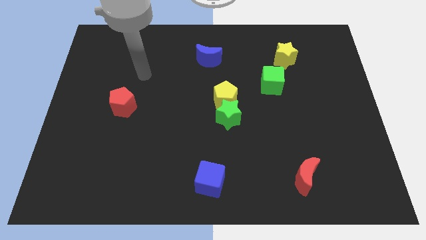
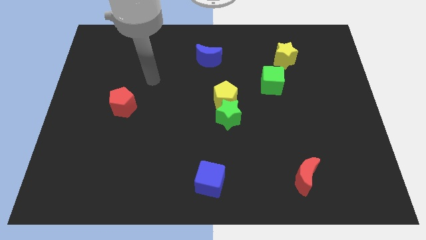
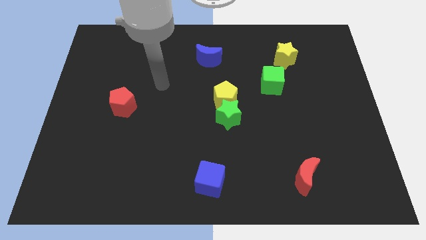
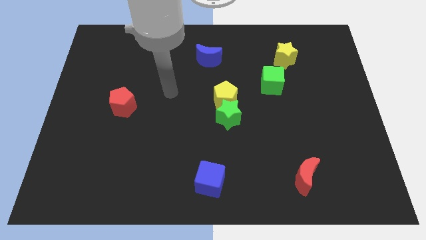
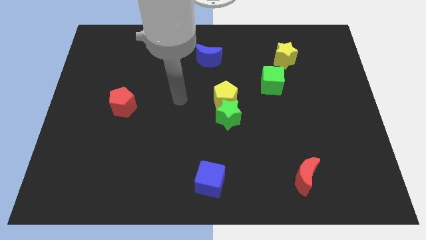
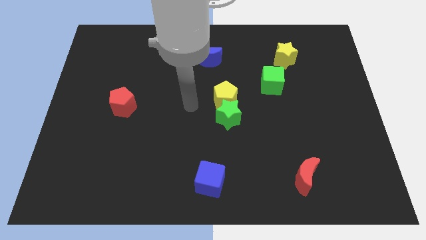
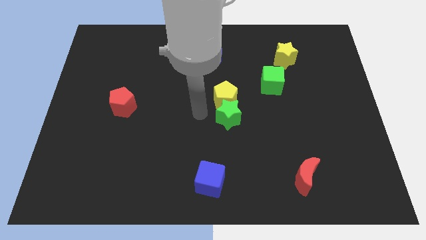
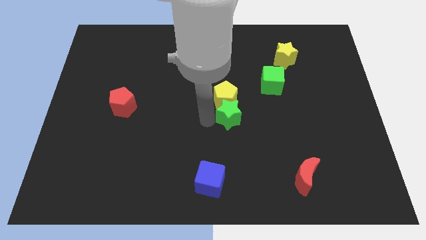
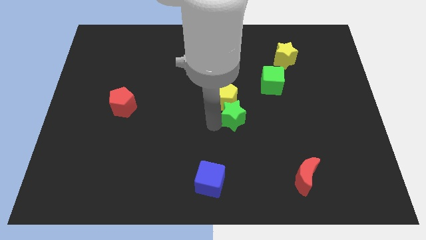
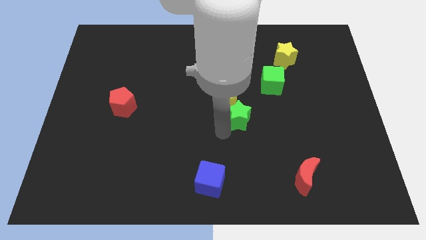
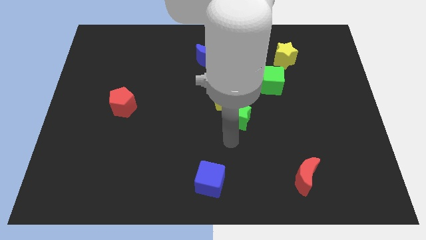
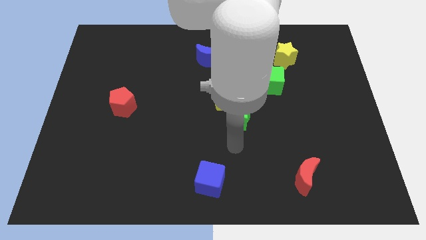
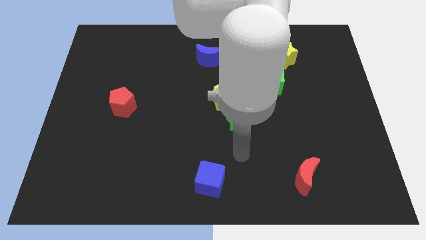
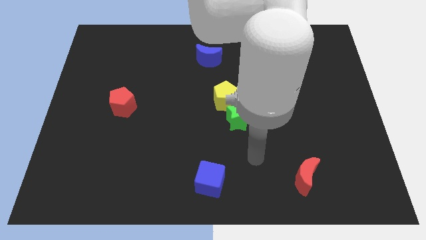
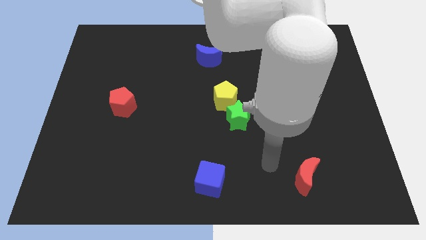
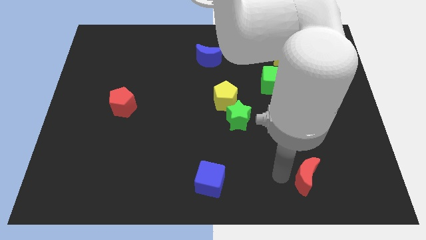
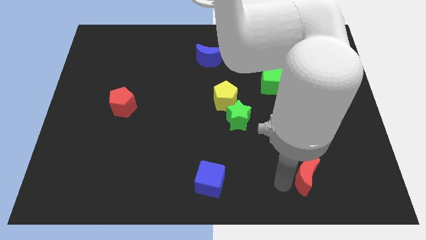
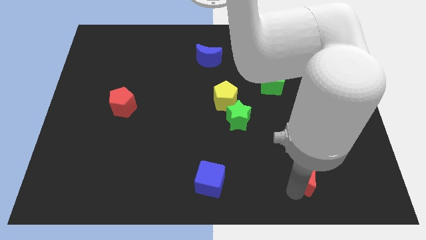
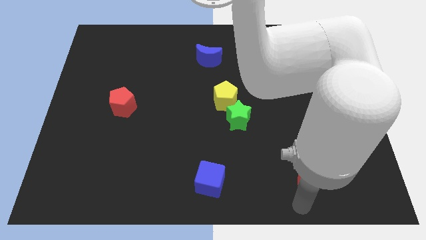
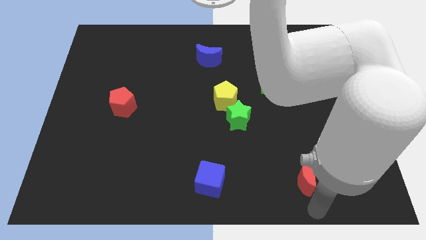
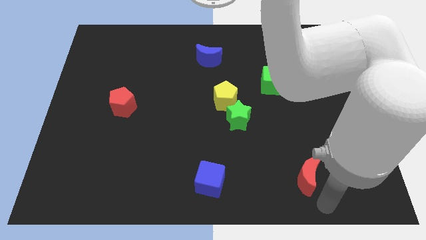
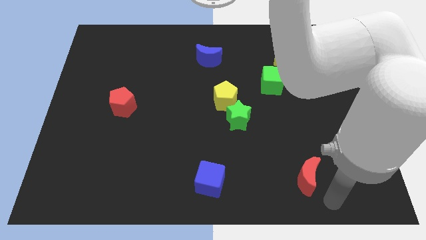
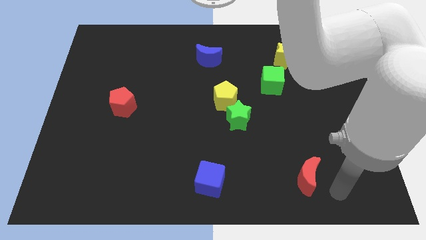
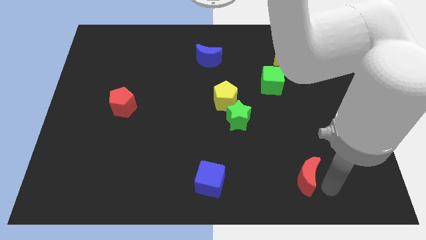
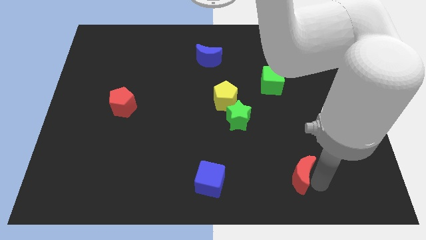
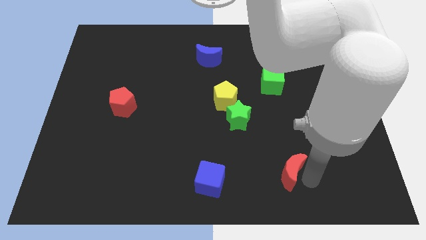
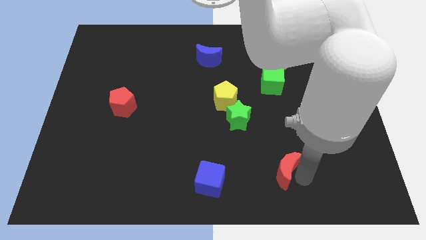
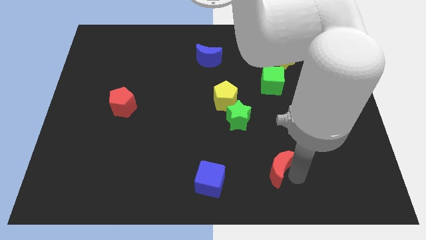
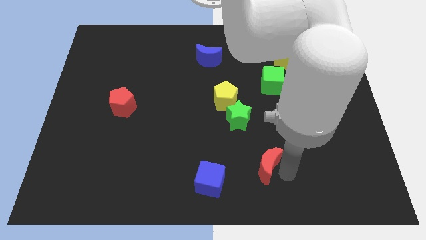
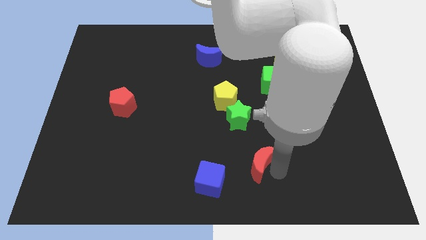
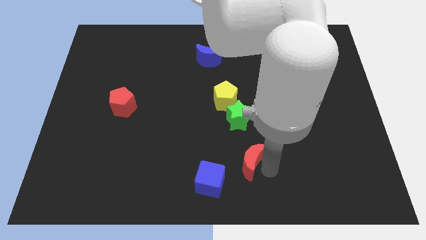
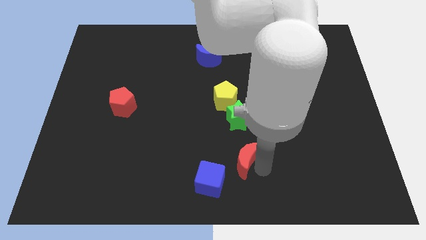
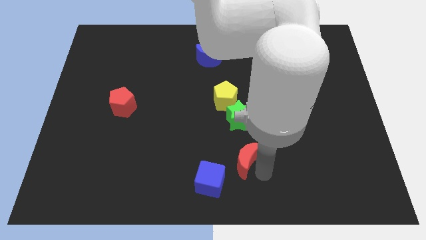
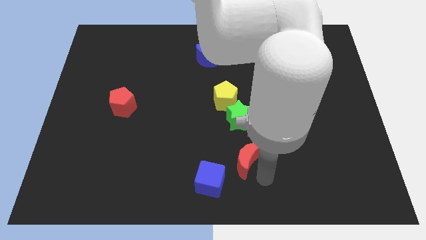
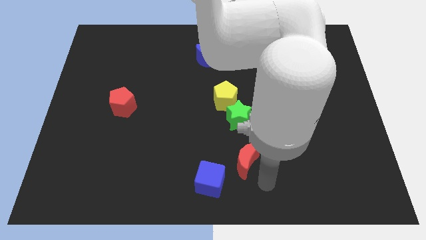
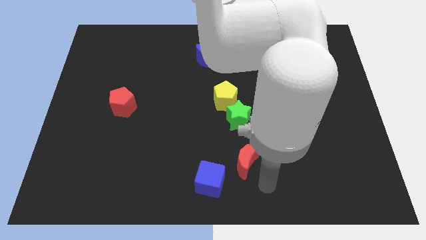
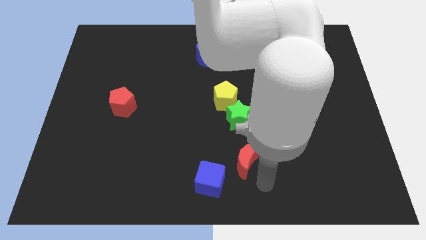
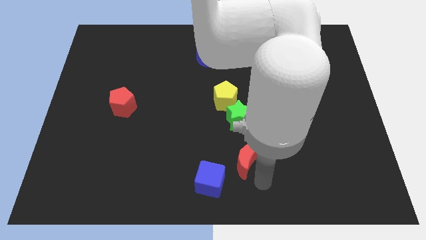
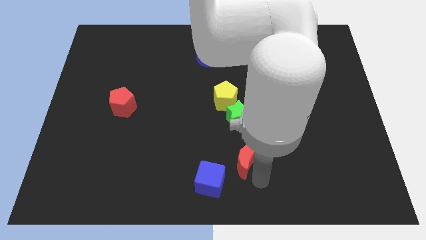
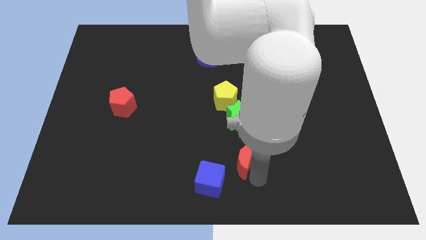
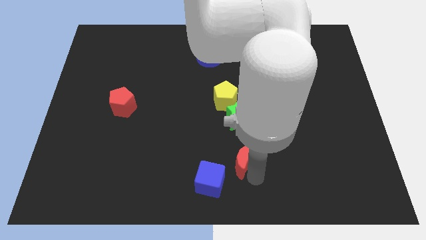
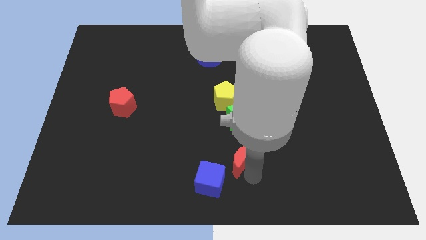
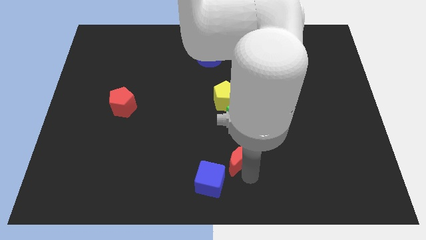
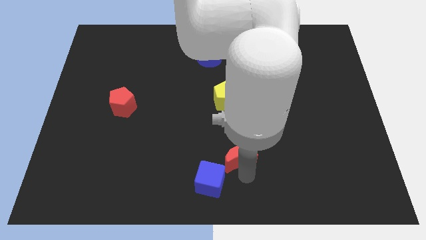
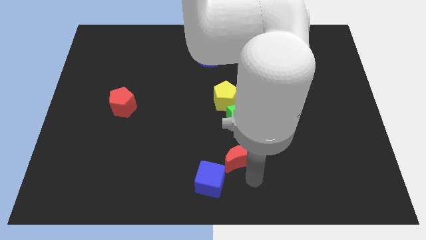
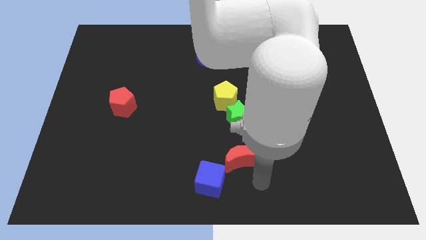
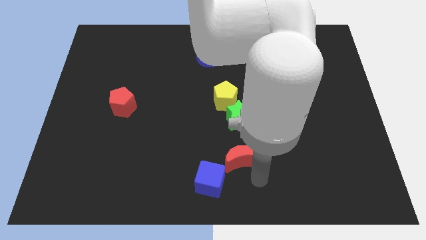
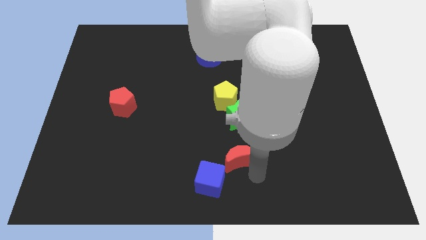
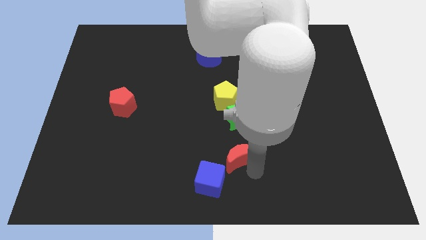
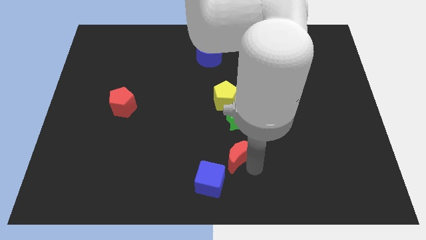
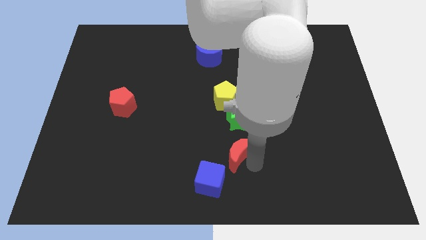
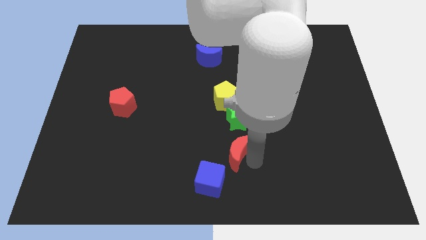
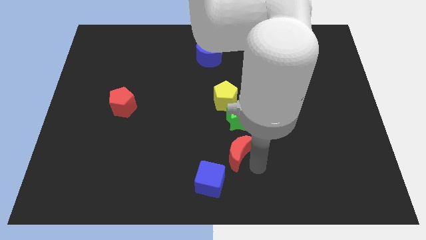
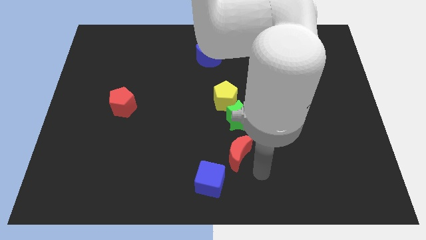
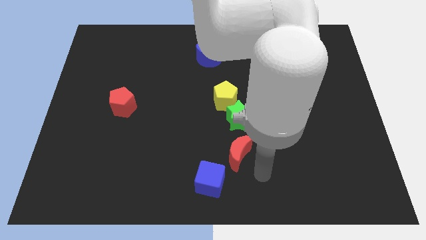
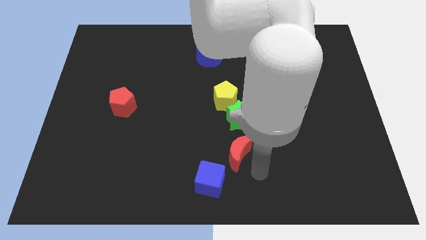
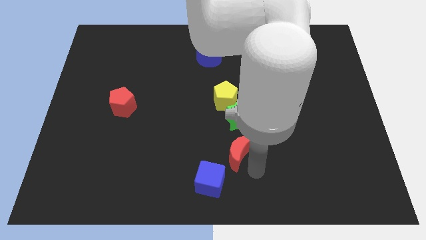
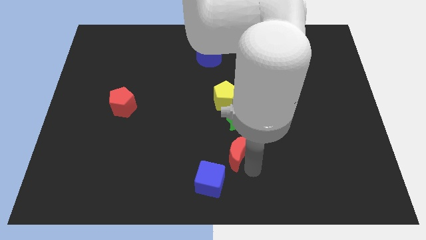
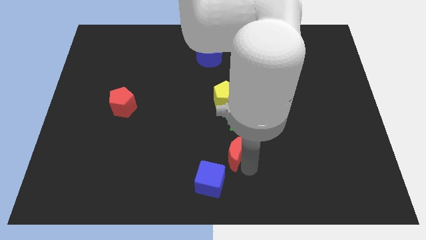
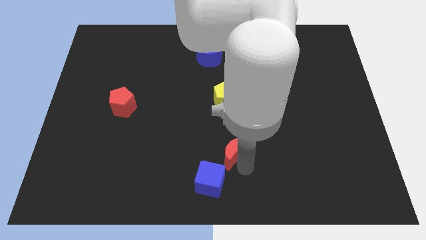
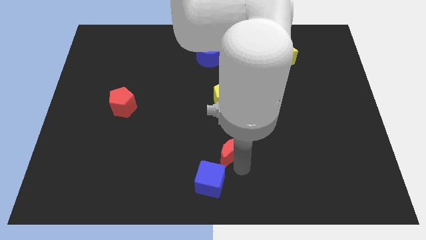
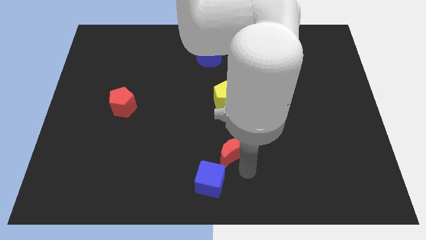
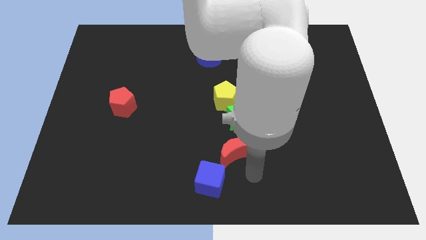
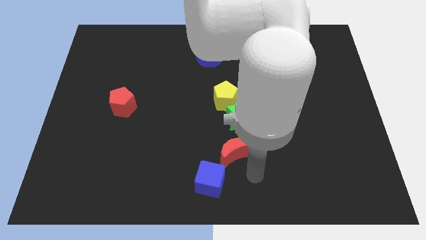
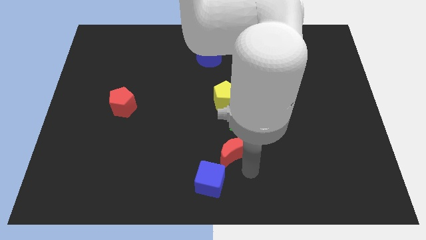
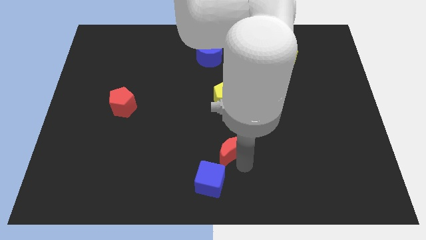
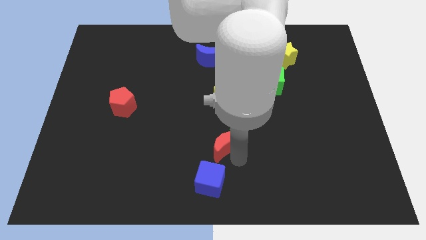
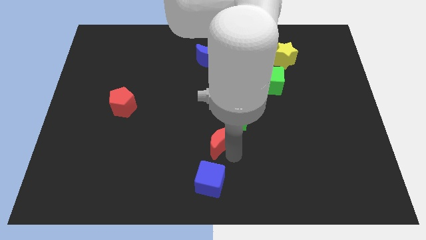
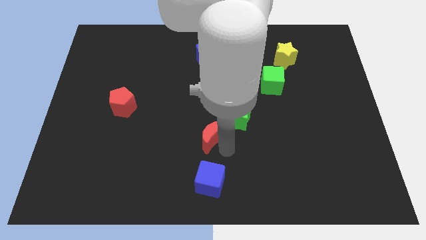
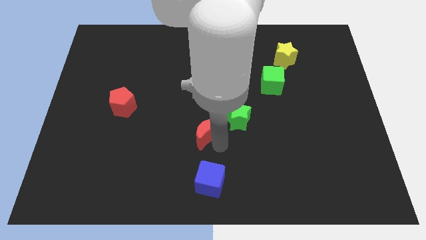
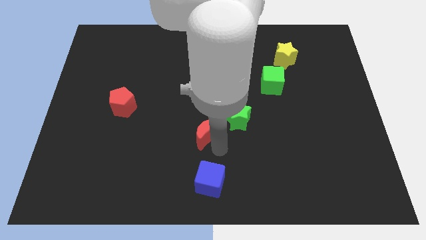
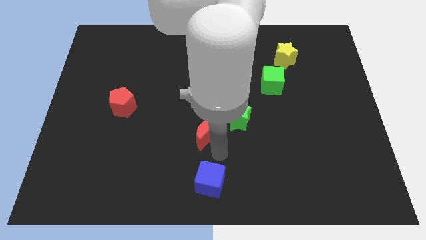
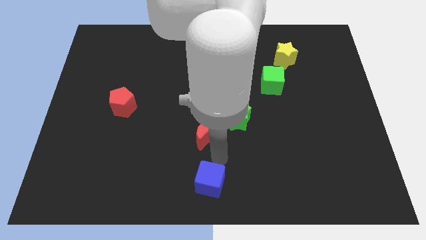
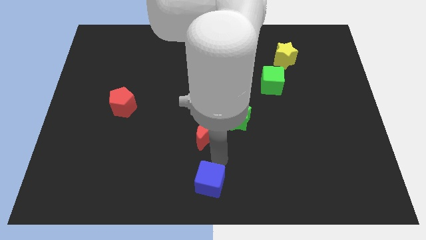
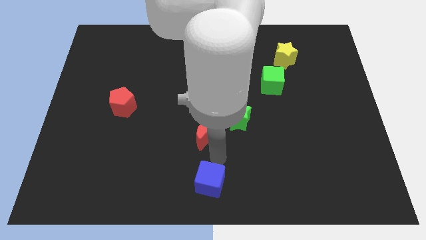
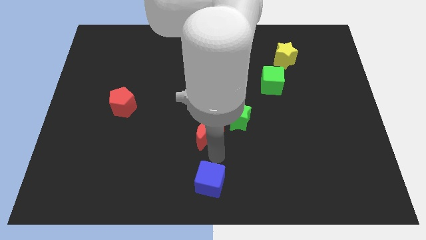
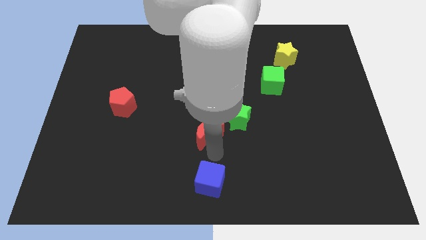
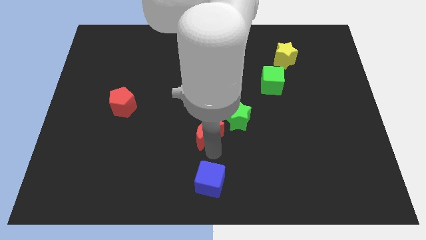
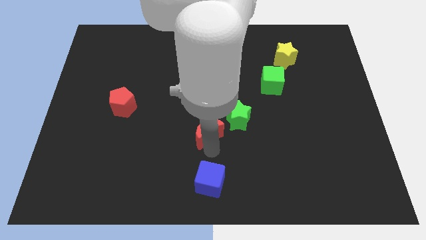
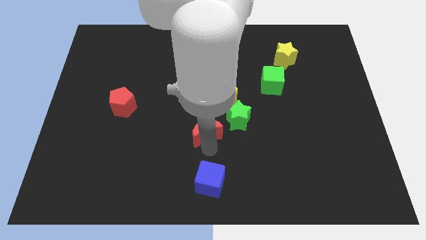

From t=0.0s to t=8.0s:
push the red moon upwards and left
